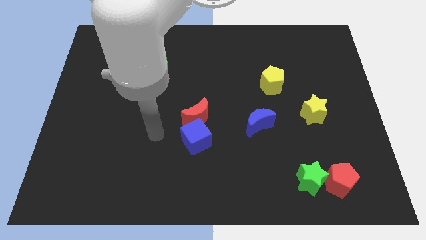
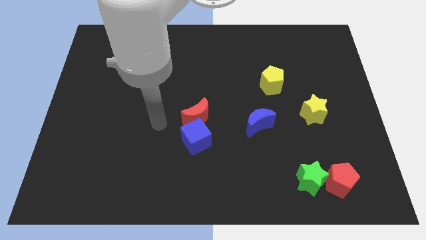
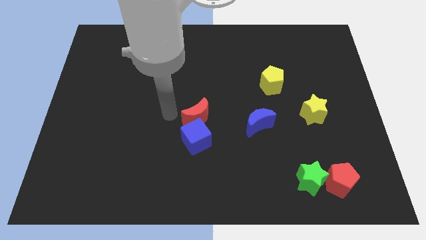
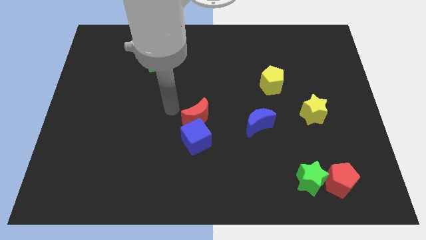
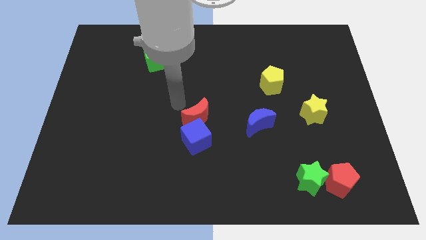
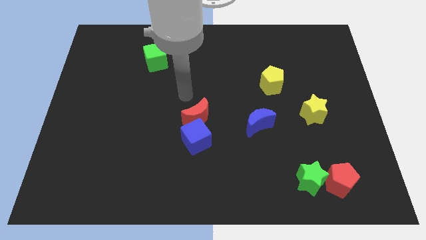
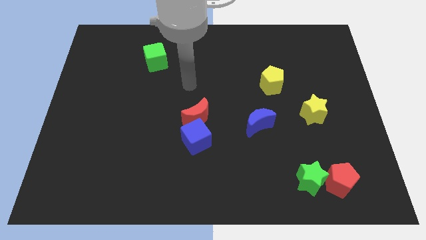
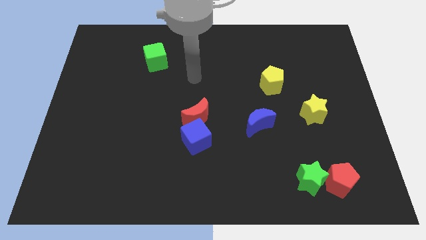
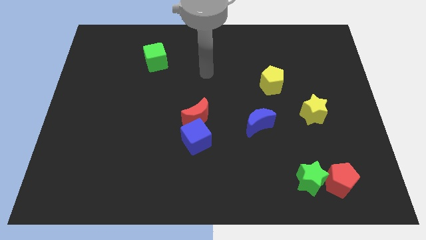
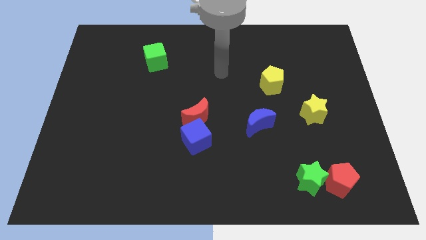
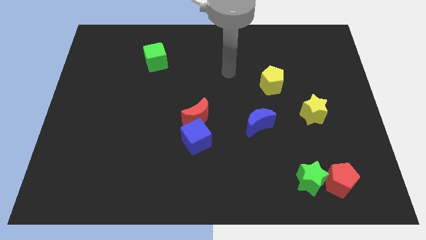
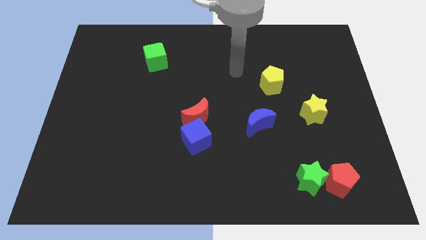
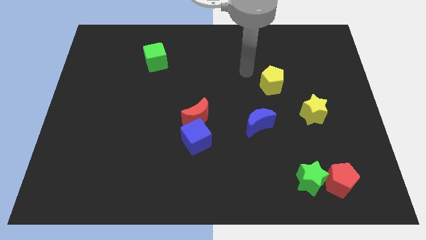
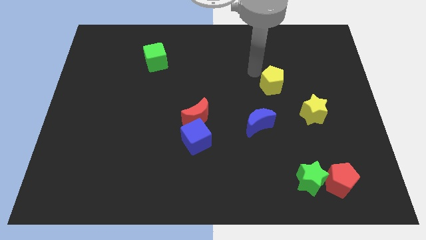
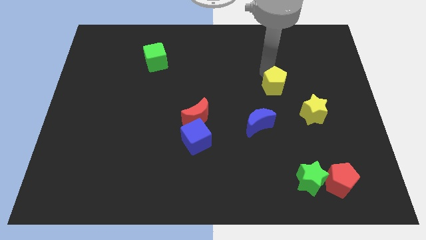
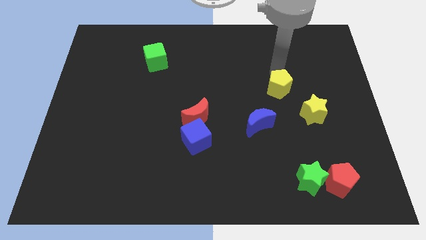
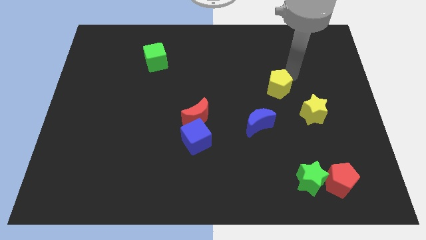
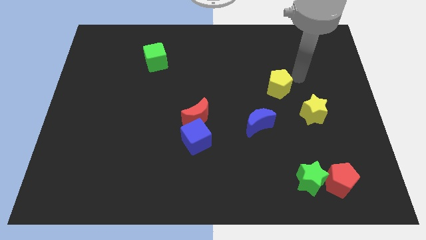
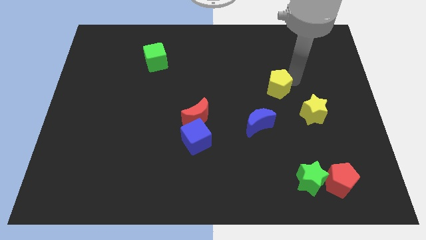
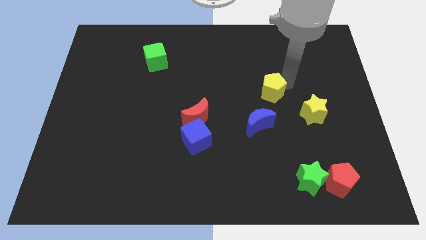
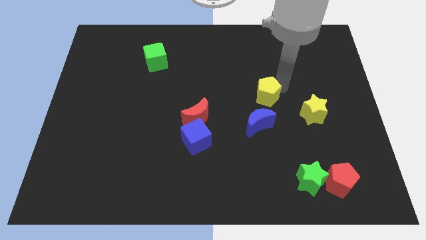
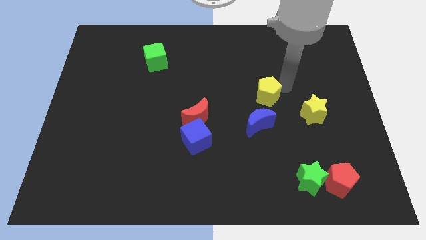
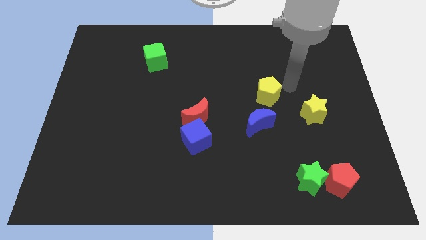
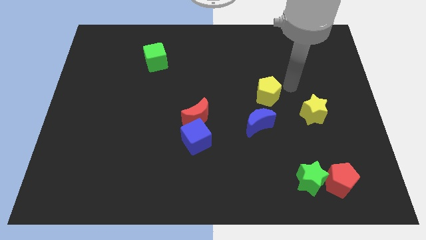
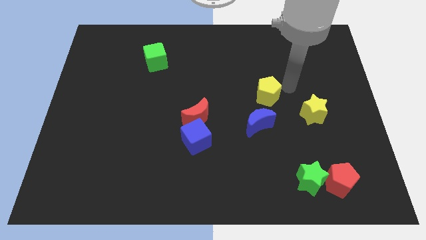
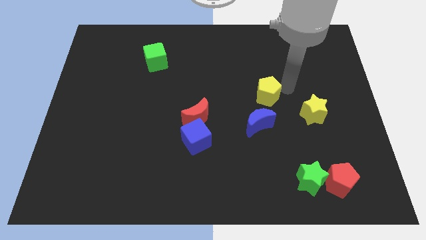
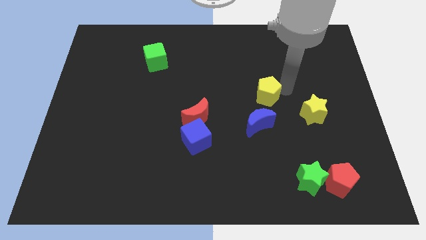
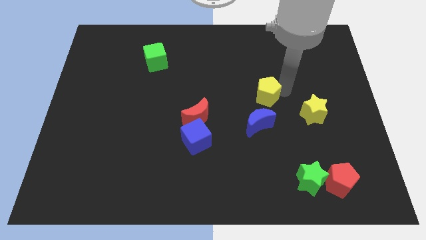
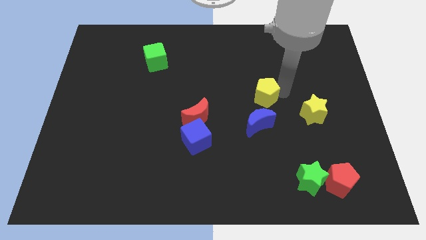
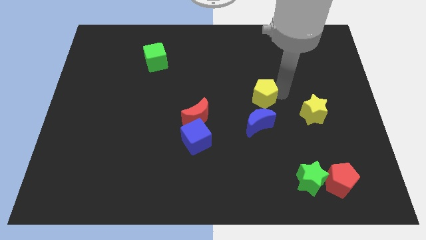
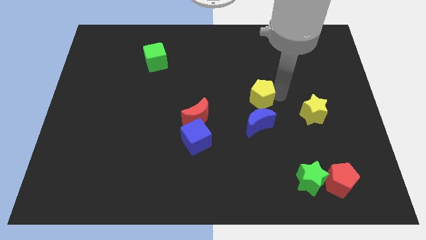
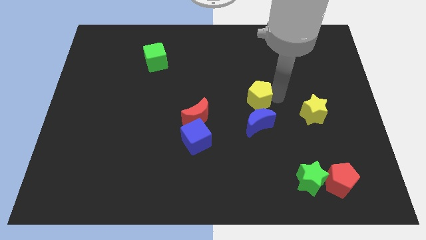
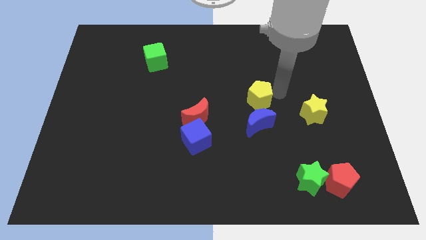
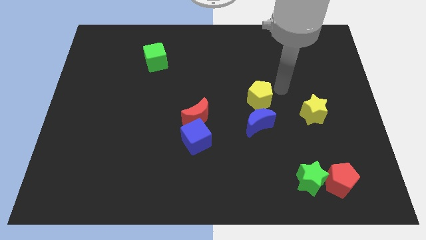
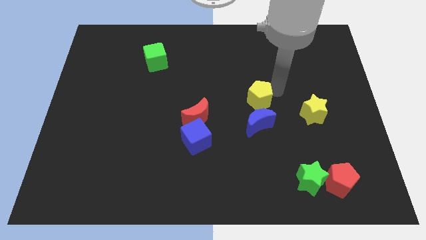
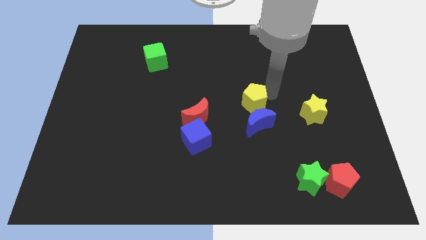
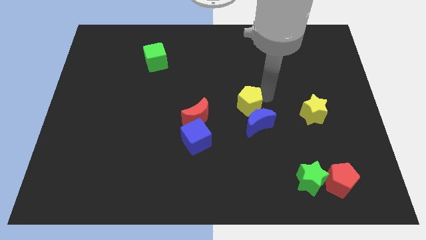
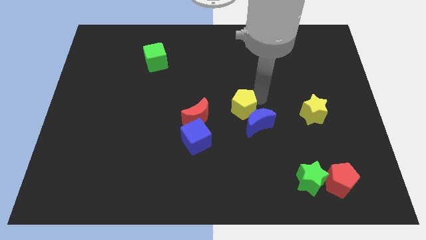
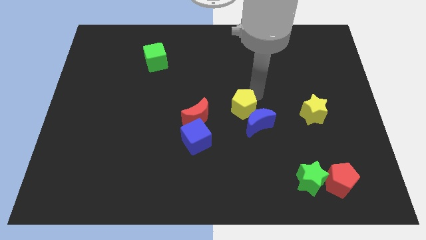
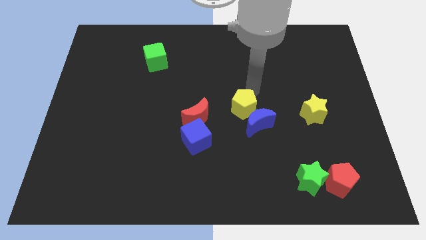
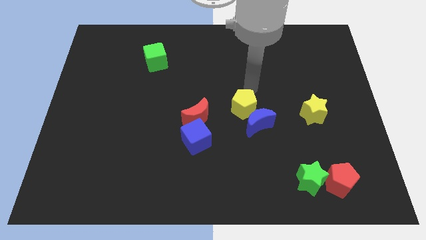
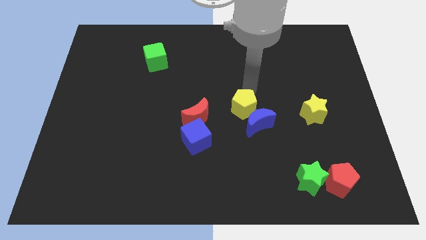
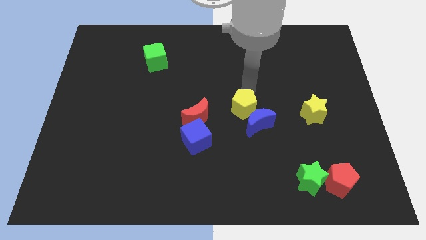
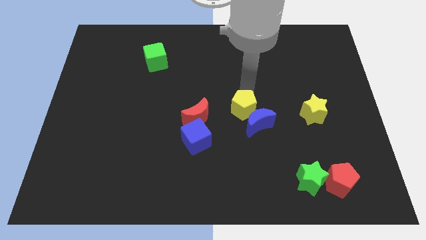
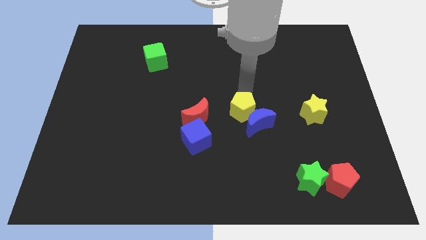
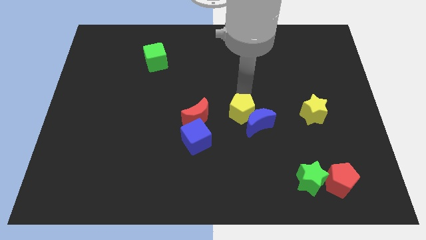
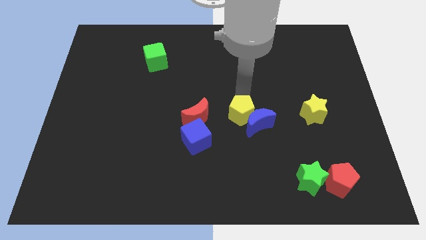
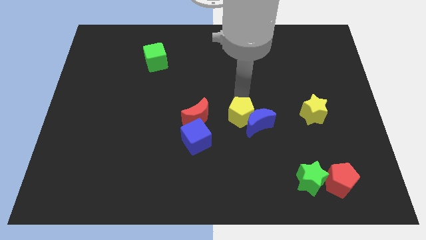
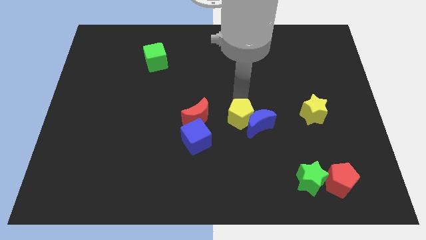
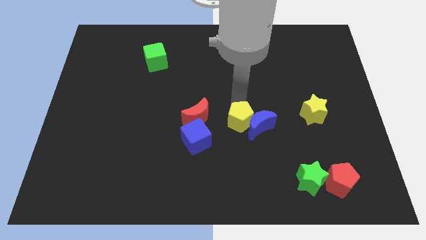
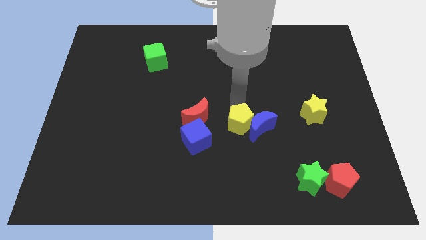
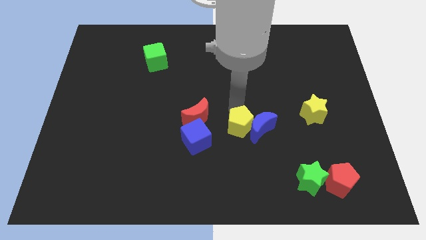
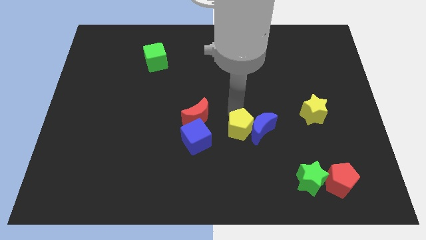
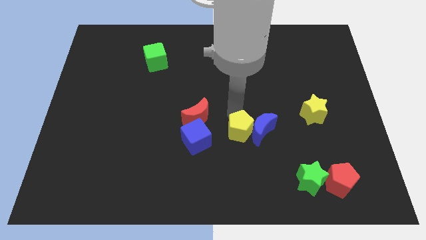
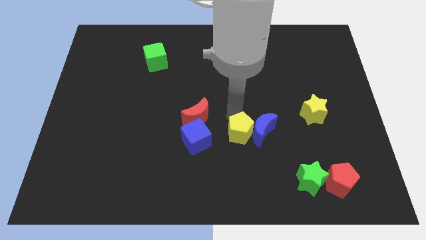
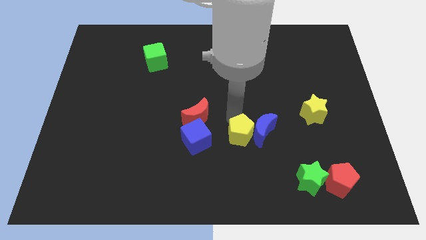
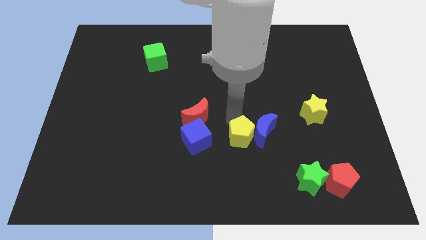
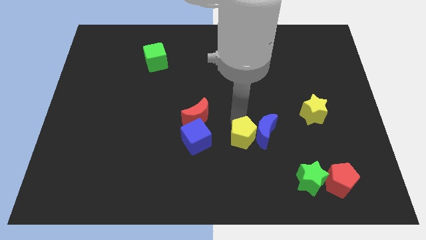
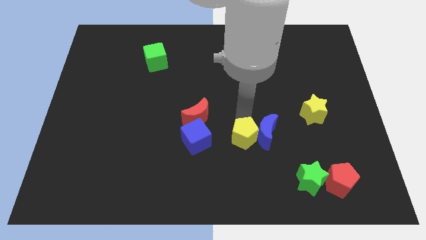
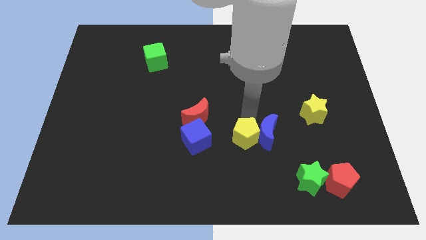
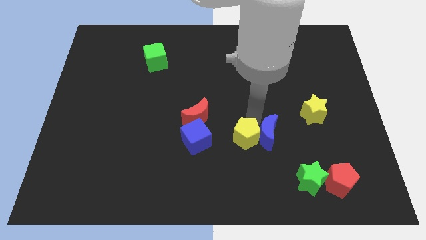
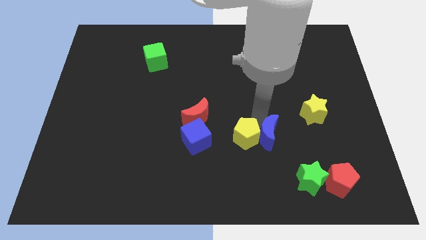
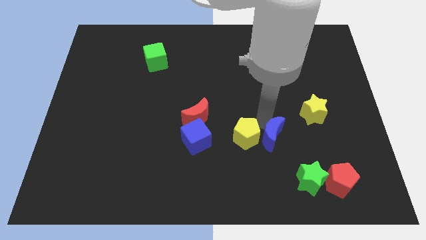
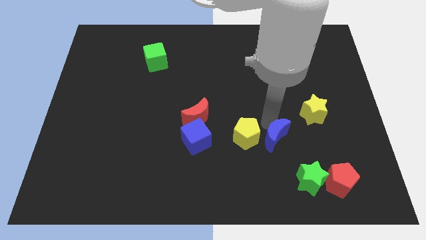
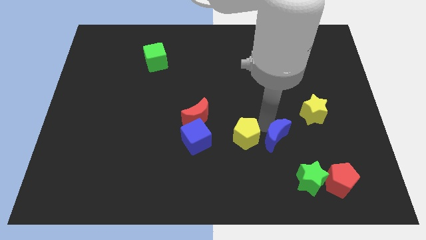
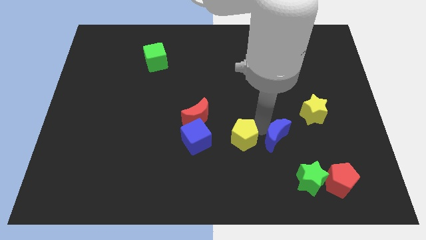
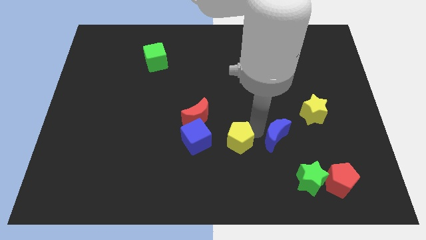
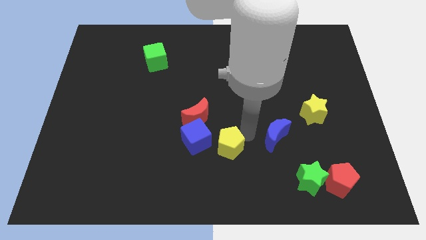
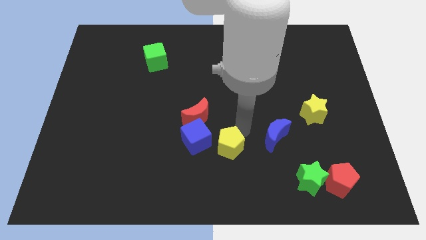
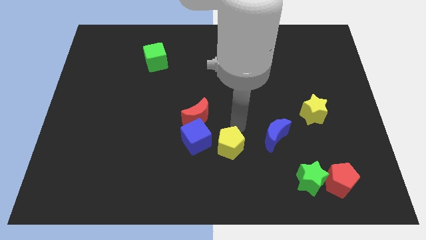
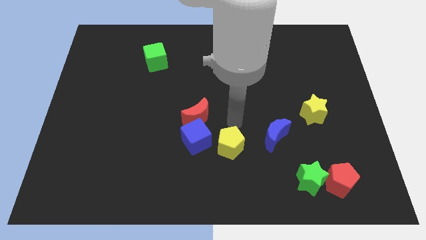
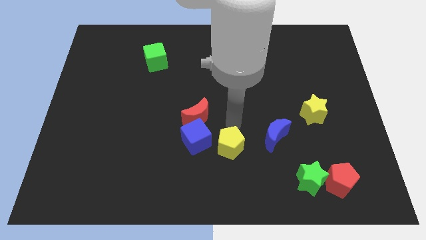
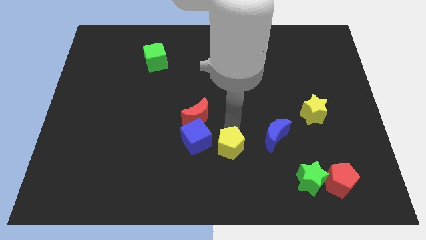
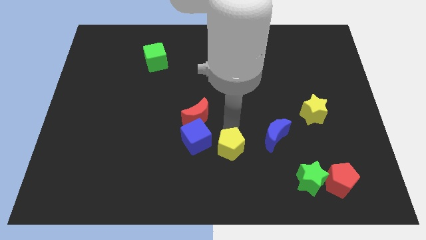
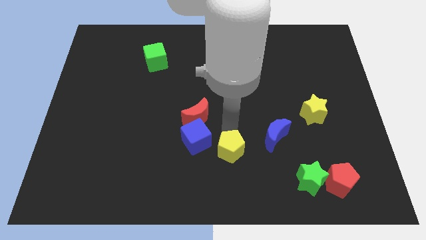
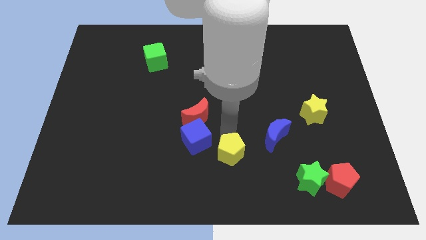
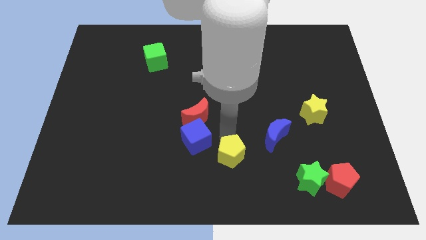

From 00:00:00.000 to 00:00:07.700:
put the yellow pentagon to the bottom
